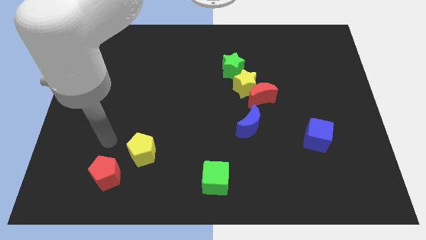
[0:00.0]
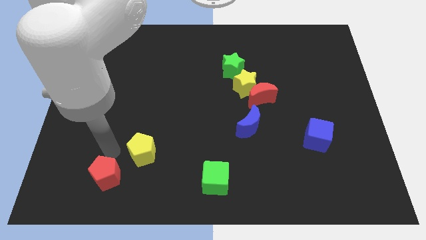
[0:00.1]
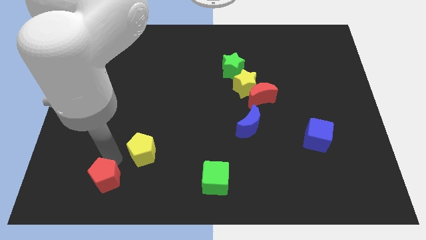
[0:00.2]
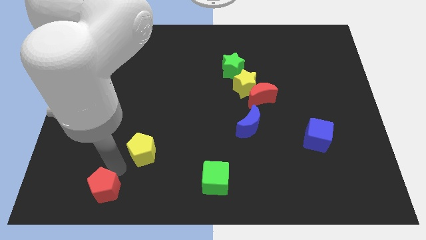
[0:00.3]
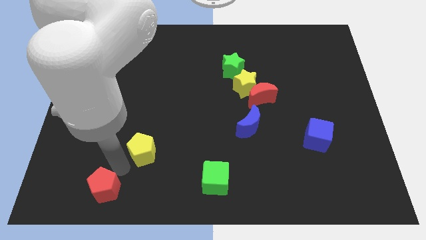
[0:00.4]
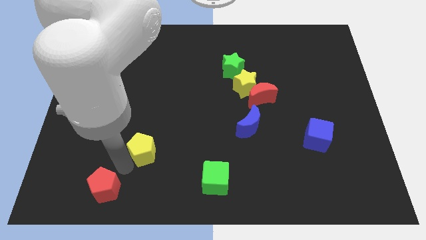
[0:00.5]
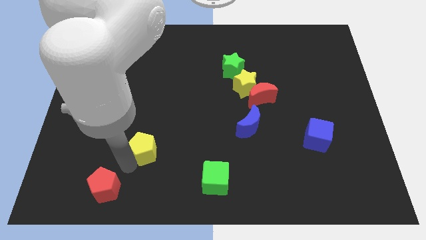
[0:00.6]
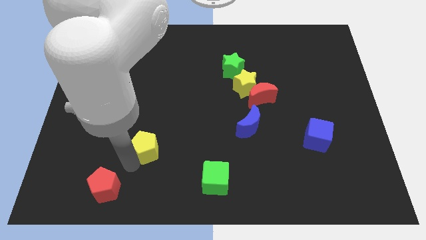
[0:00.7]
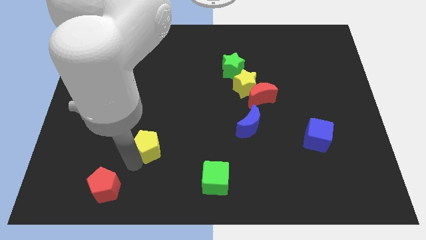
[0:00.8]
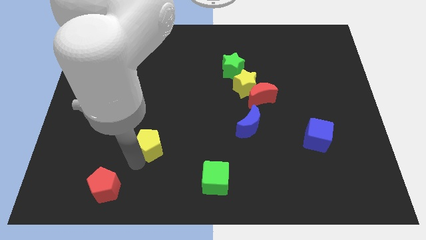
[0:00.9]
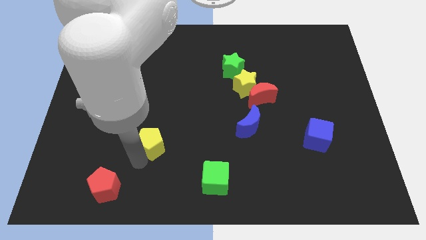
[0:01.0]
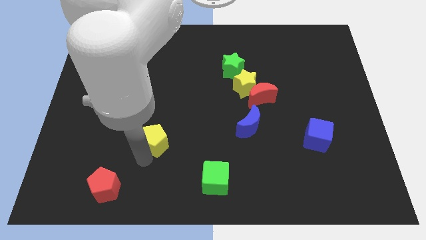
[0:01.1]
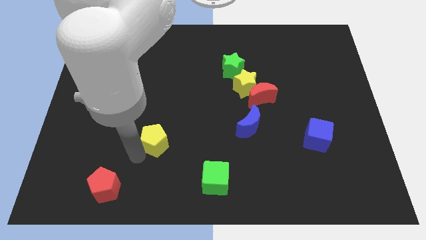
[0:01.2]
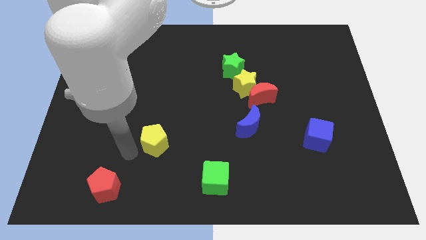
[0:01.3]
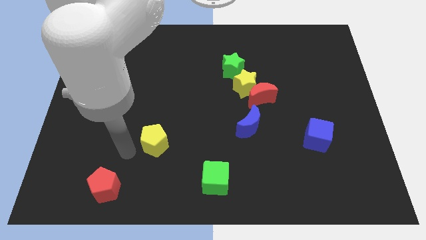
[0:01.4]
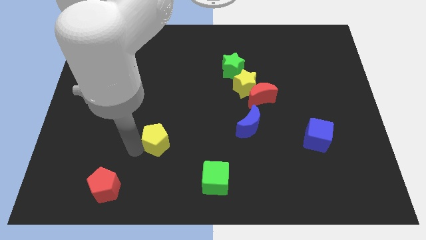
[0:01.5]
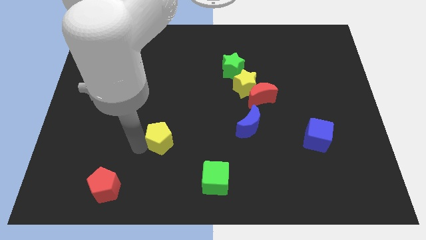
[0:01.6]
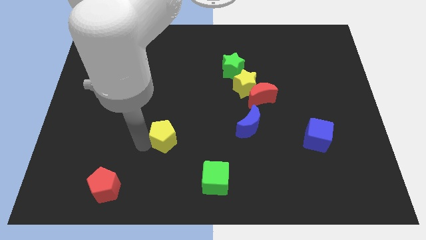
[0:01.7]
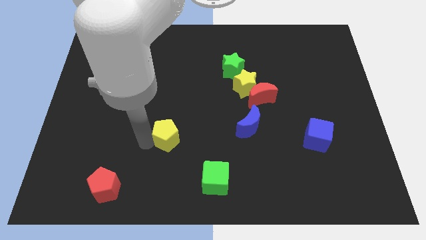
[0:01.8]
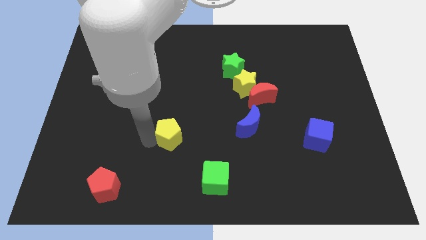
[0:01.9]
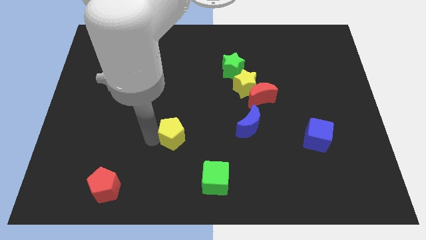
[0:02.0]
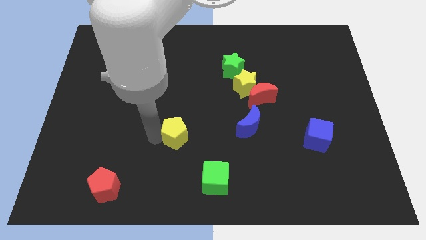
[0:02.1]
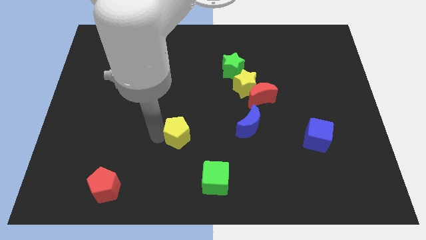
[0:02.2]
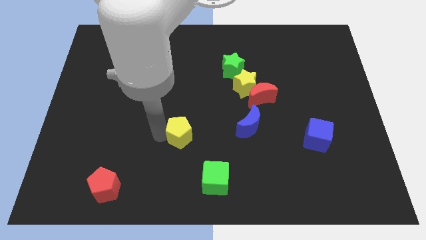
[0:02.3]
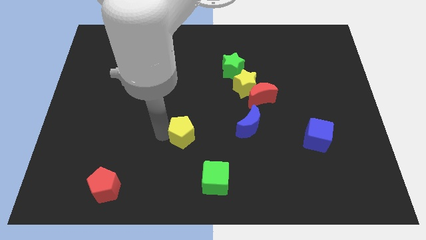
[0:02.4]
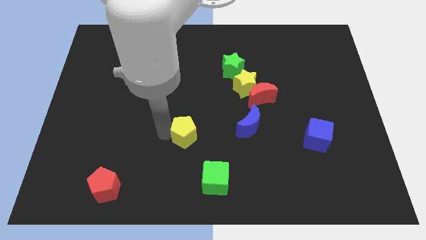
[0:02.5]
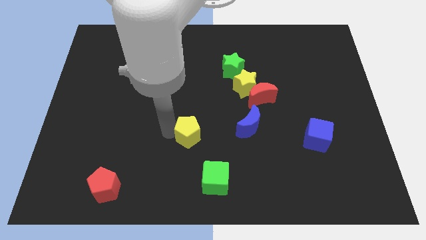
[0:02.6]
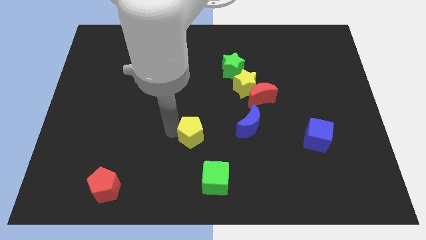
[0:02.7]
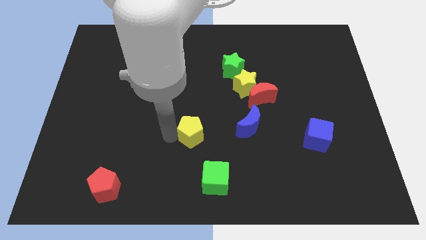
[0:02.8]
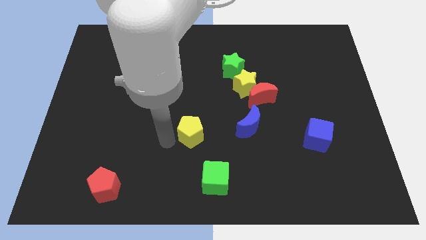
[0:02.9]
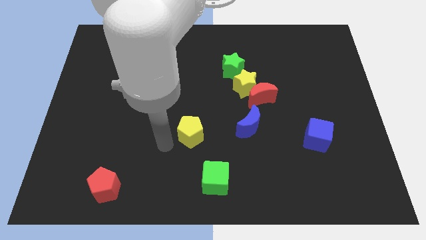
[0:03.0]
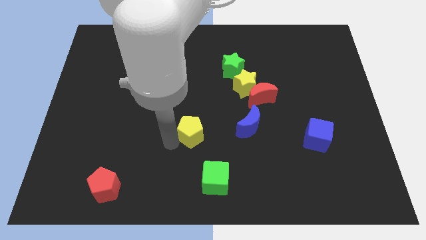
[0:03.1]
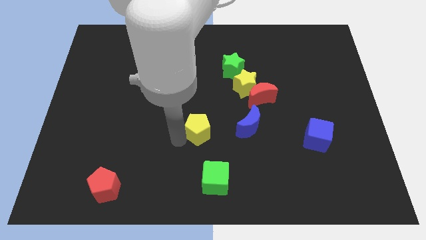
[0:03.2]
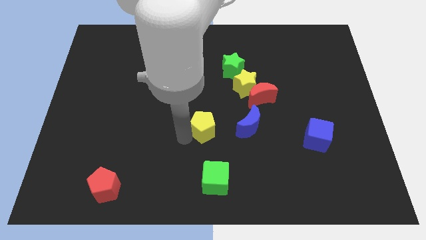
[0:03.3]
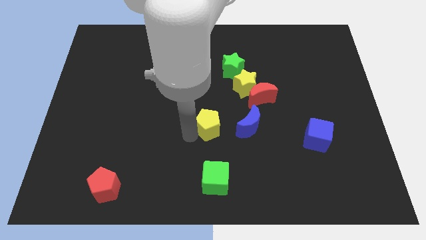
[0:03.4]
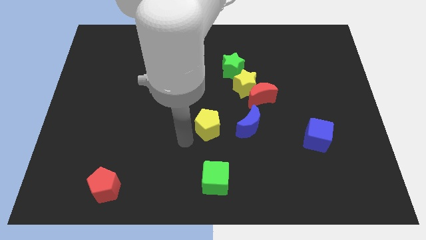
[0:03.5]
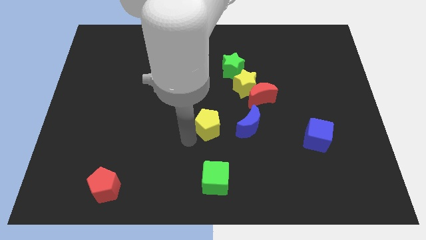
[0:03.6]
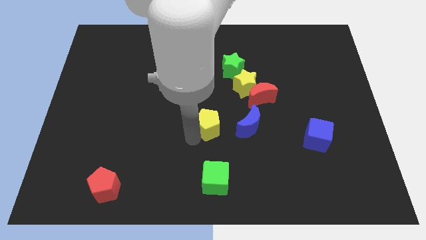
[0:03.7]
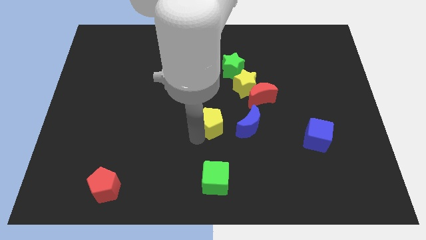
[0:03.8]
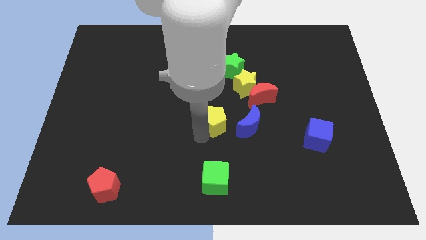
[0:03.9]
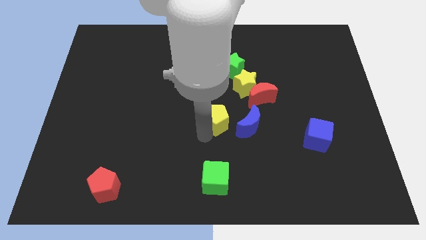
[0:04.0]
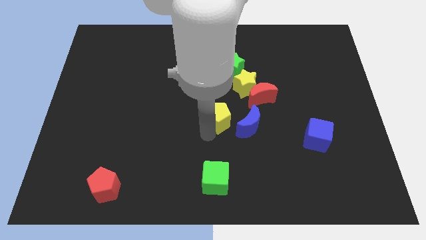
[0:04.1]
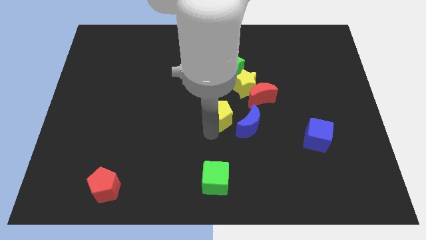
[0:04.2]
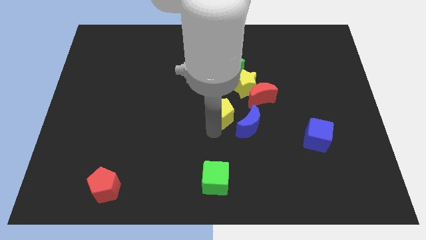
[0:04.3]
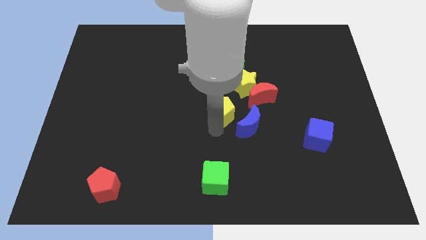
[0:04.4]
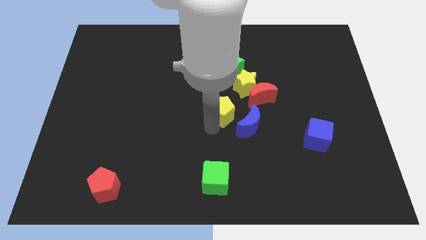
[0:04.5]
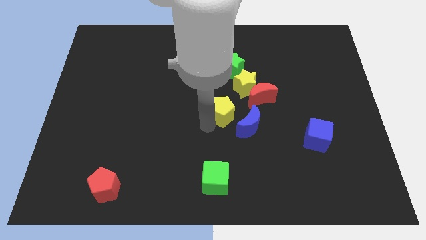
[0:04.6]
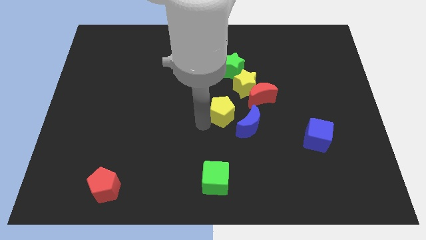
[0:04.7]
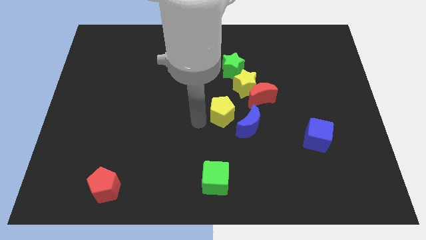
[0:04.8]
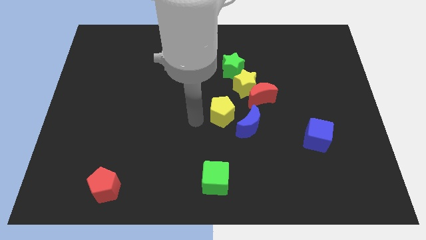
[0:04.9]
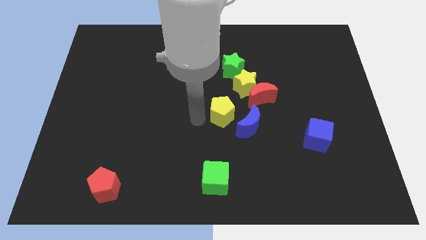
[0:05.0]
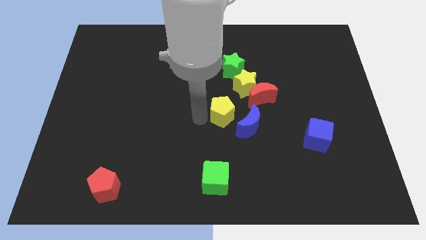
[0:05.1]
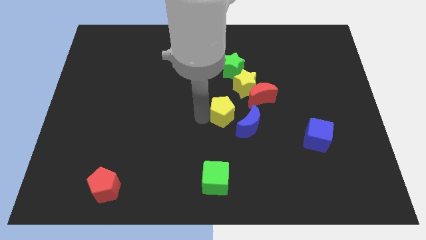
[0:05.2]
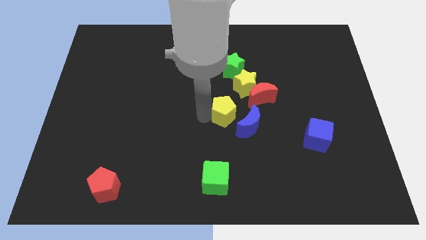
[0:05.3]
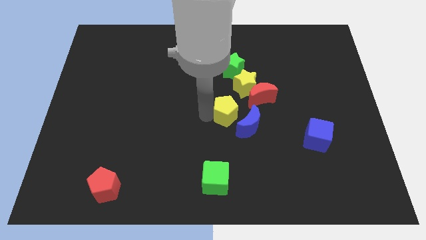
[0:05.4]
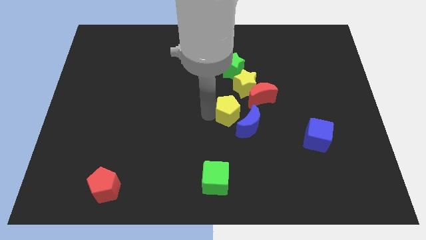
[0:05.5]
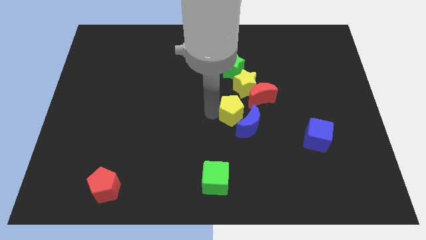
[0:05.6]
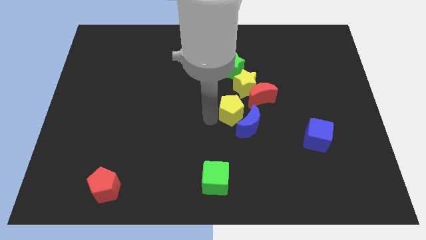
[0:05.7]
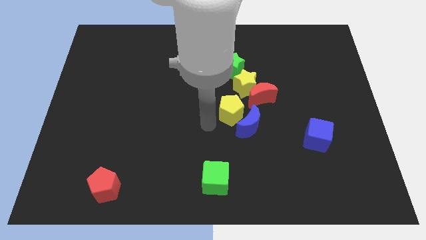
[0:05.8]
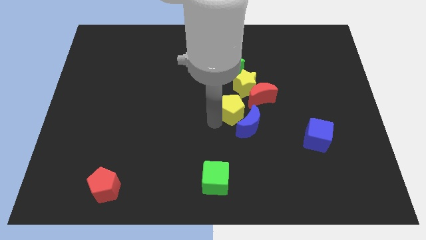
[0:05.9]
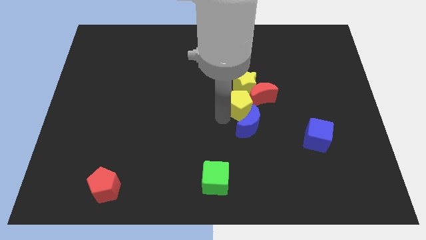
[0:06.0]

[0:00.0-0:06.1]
push the yellow pentagon towards the red moon

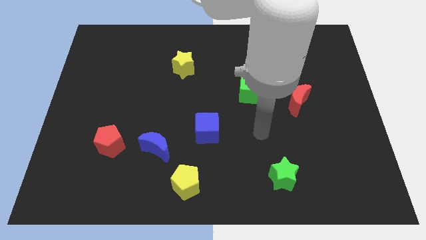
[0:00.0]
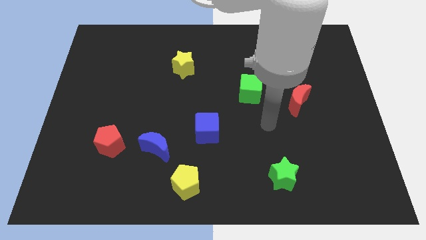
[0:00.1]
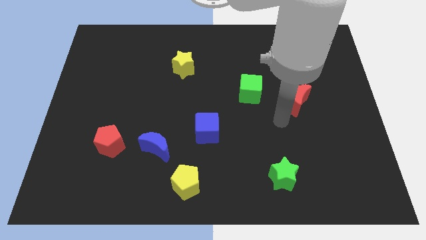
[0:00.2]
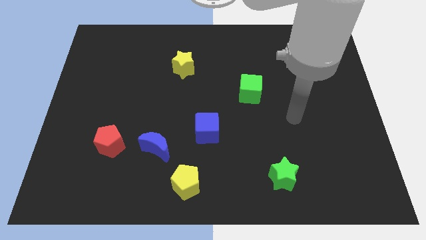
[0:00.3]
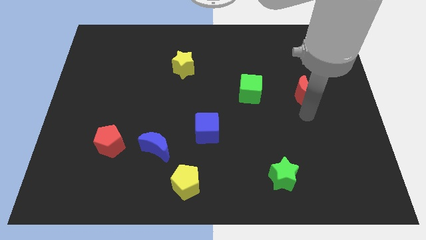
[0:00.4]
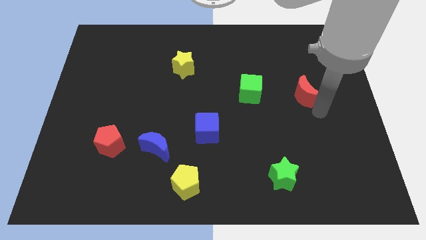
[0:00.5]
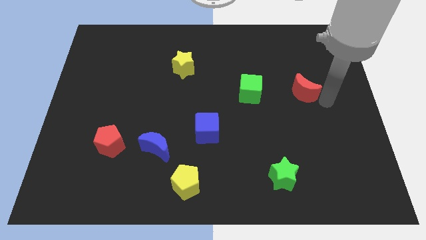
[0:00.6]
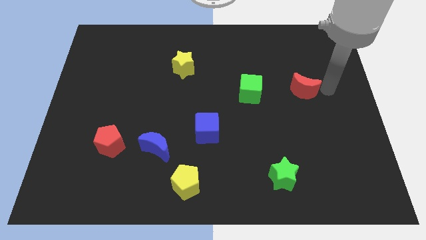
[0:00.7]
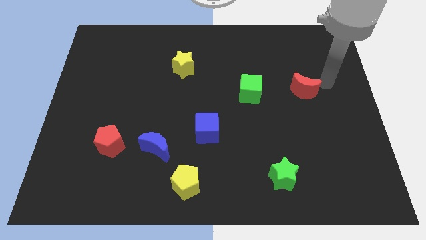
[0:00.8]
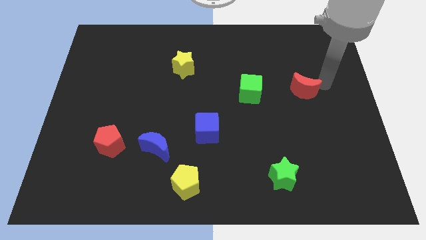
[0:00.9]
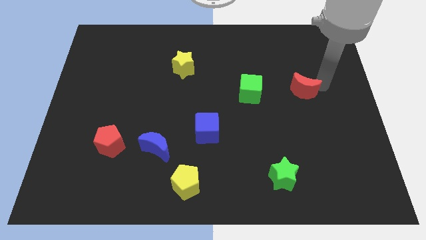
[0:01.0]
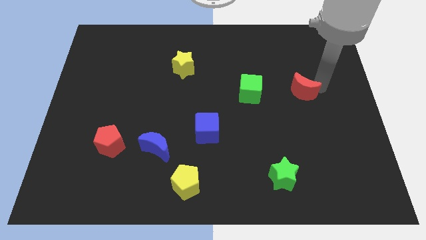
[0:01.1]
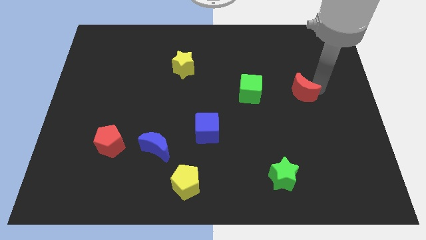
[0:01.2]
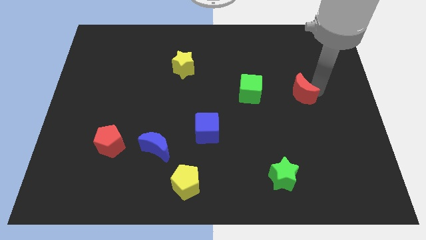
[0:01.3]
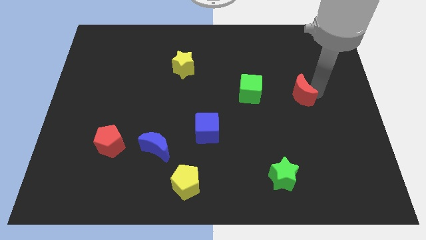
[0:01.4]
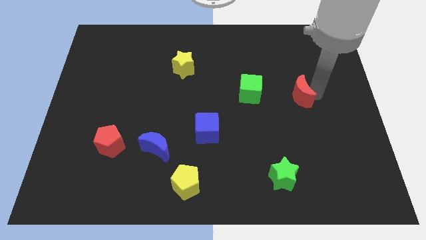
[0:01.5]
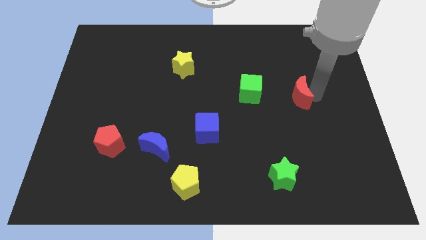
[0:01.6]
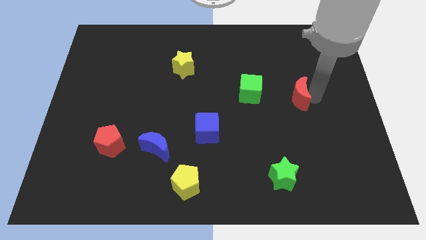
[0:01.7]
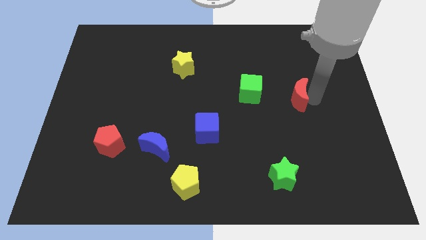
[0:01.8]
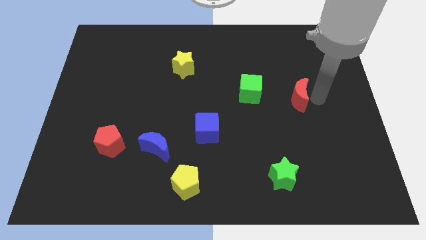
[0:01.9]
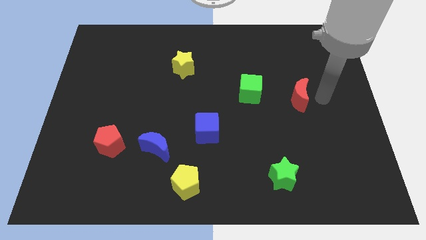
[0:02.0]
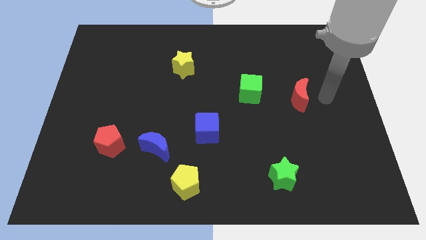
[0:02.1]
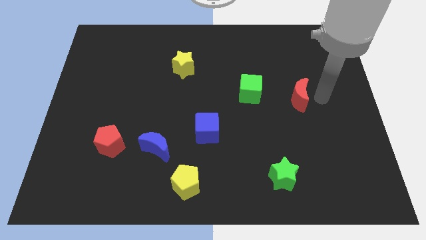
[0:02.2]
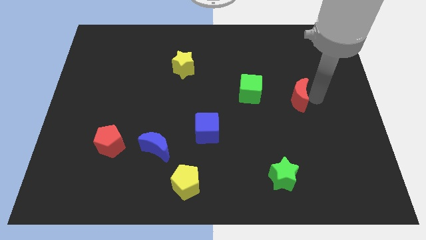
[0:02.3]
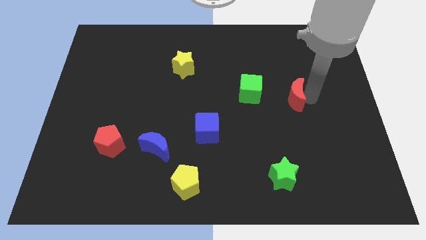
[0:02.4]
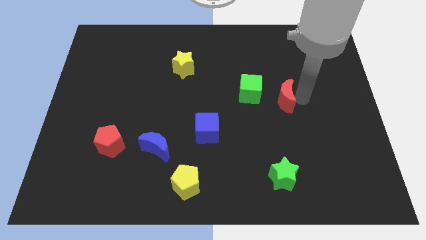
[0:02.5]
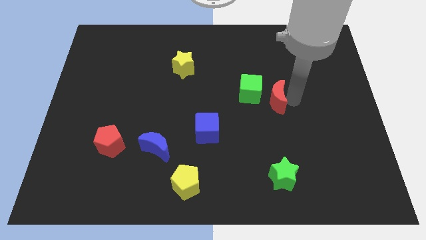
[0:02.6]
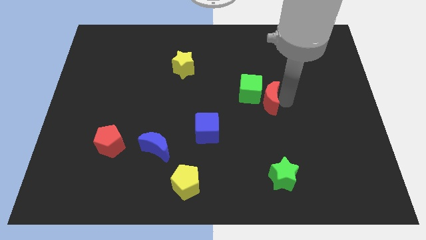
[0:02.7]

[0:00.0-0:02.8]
push the red moon close to the green cube
